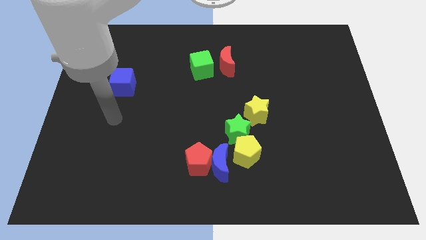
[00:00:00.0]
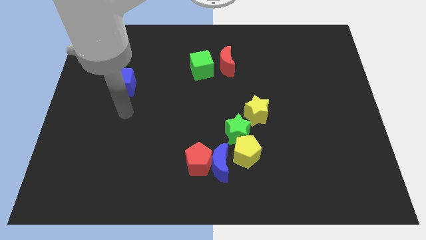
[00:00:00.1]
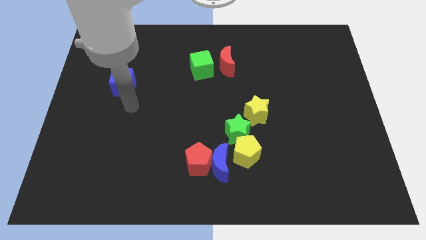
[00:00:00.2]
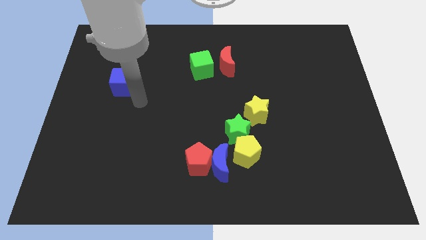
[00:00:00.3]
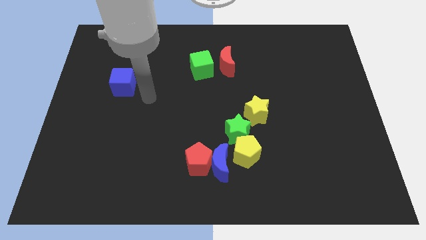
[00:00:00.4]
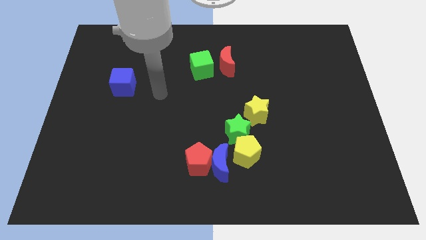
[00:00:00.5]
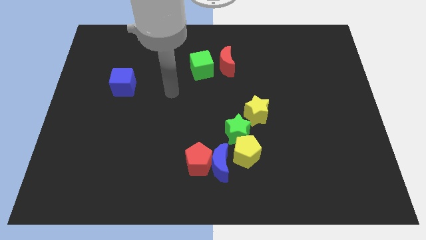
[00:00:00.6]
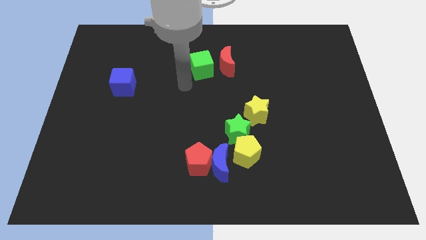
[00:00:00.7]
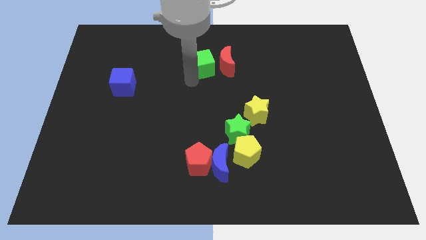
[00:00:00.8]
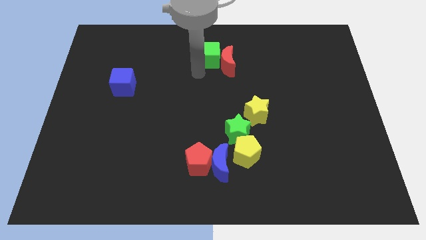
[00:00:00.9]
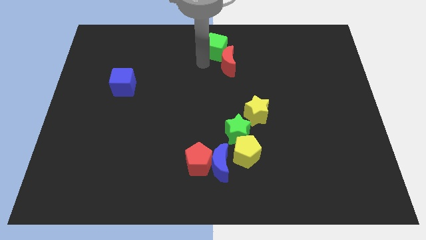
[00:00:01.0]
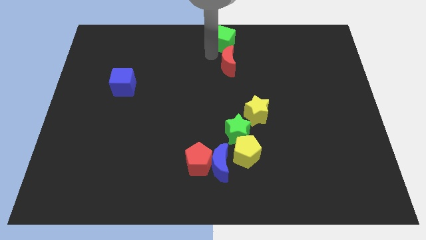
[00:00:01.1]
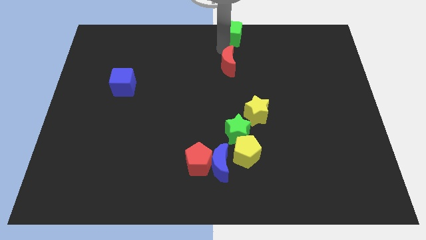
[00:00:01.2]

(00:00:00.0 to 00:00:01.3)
separate the red moon from the green cube

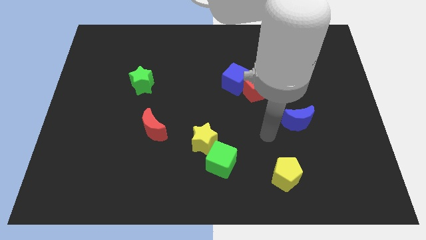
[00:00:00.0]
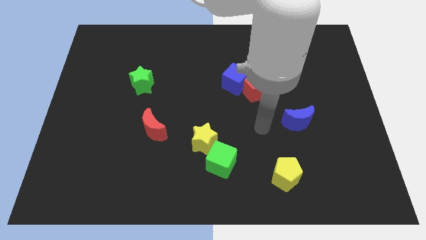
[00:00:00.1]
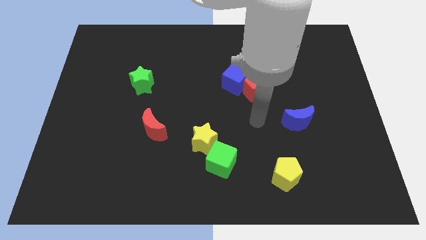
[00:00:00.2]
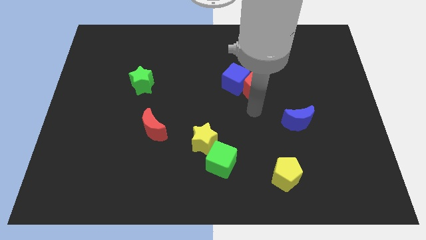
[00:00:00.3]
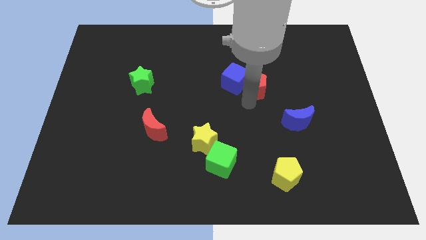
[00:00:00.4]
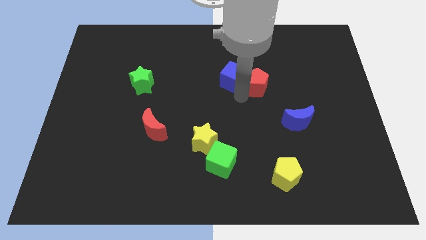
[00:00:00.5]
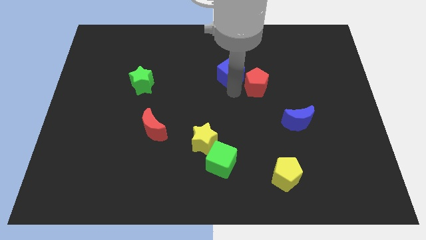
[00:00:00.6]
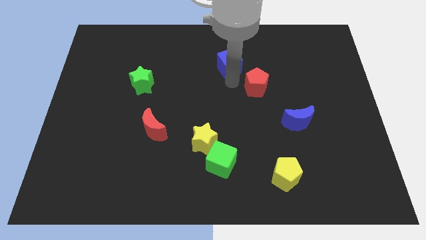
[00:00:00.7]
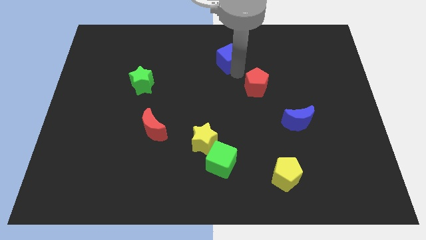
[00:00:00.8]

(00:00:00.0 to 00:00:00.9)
move the red pentagon away from the blue cube

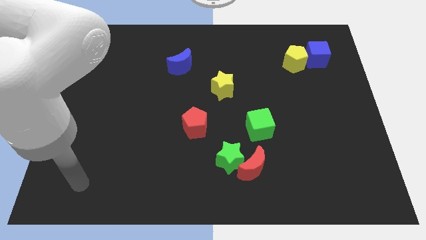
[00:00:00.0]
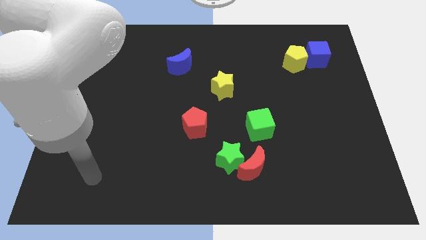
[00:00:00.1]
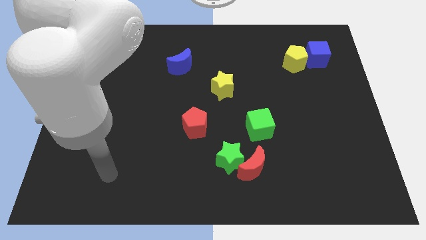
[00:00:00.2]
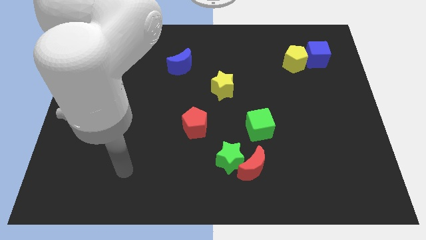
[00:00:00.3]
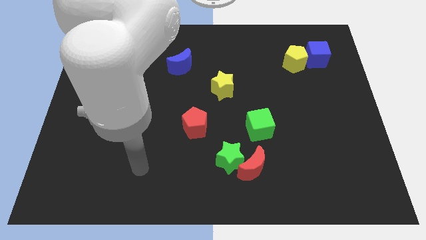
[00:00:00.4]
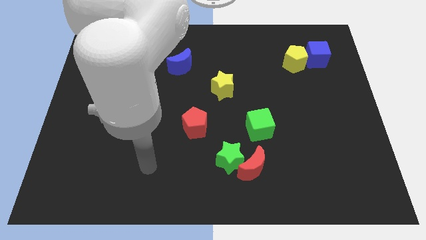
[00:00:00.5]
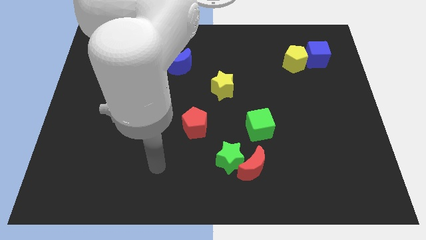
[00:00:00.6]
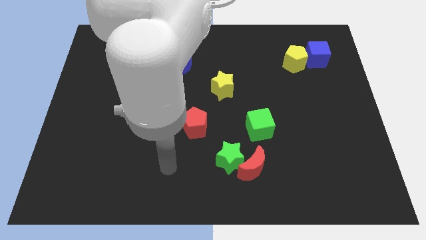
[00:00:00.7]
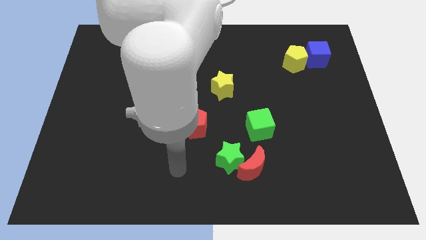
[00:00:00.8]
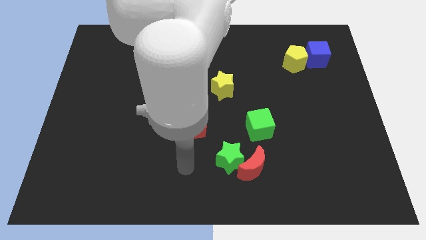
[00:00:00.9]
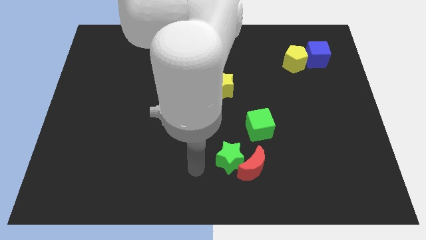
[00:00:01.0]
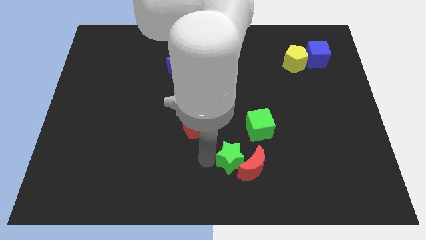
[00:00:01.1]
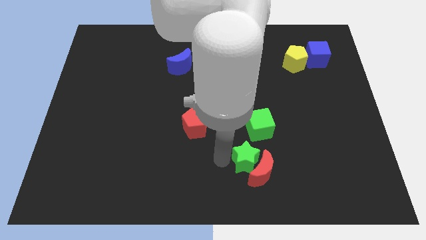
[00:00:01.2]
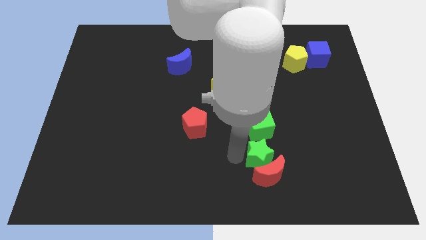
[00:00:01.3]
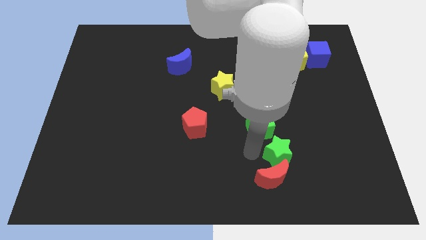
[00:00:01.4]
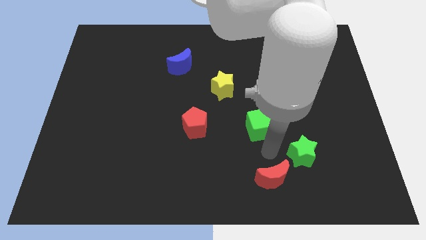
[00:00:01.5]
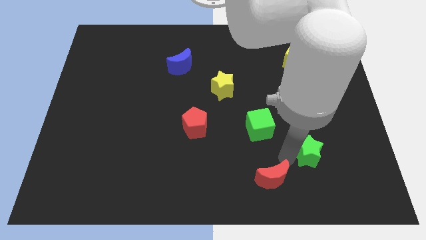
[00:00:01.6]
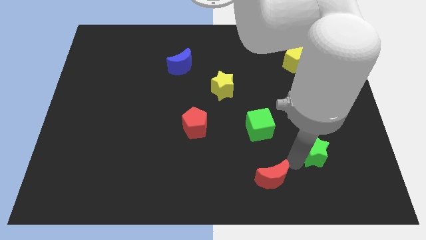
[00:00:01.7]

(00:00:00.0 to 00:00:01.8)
separate the red moon from the green star

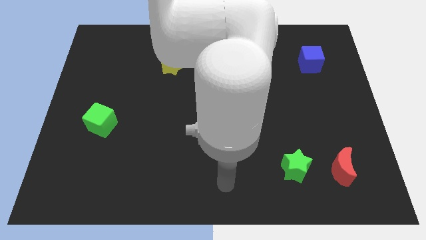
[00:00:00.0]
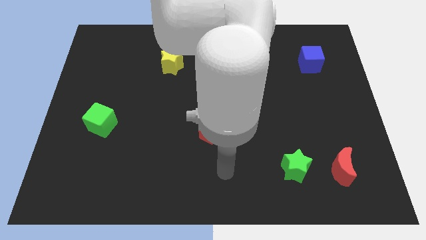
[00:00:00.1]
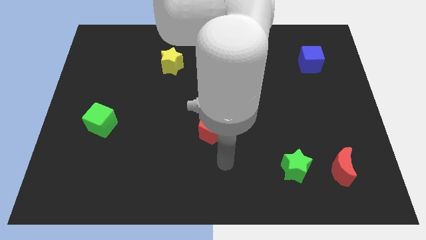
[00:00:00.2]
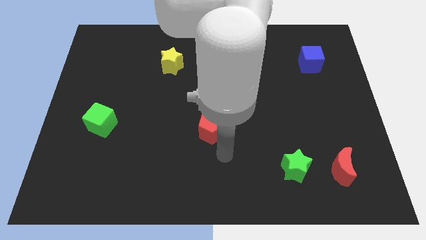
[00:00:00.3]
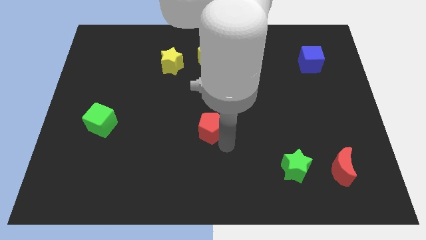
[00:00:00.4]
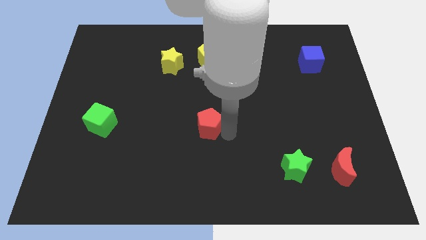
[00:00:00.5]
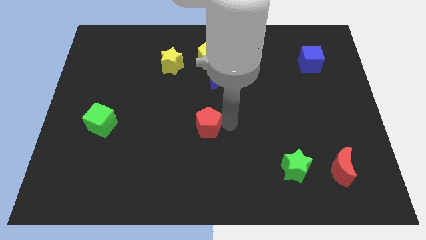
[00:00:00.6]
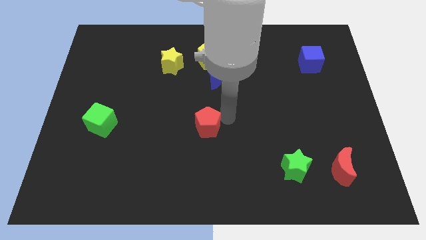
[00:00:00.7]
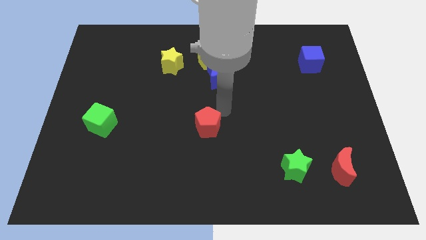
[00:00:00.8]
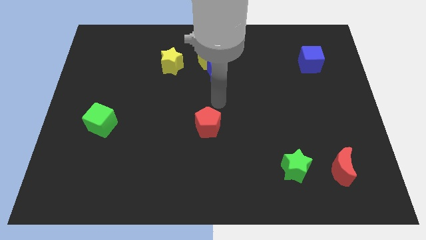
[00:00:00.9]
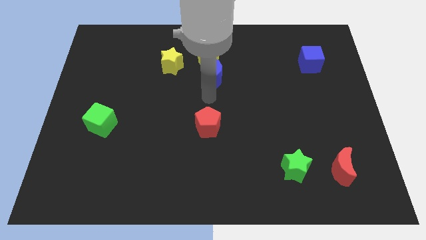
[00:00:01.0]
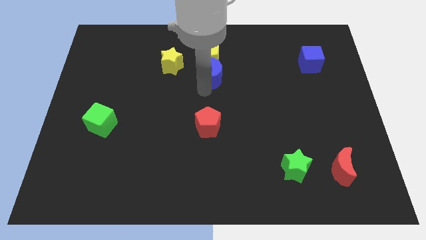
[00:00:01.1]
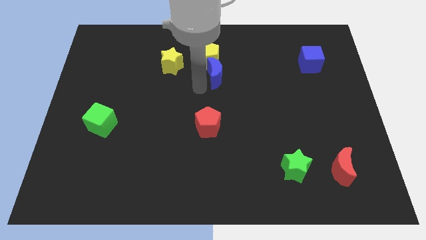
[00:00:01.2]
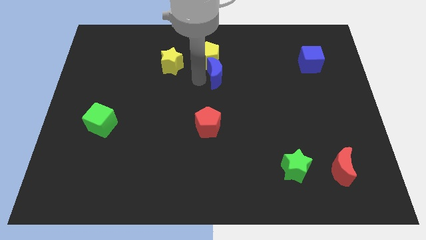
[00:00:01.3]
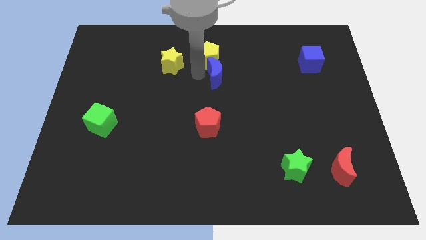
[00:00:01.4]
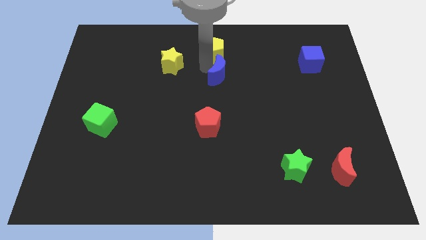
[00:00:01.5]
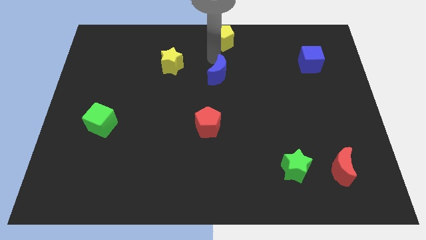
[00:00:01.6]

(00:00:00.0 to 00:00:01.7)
move the blue moon away from the yellow pentagon

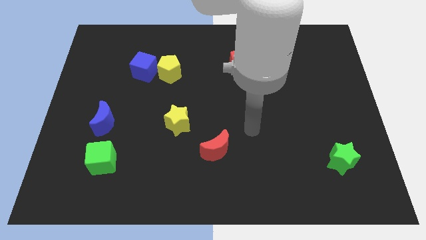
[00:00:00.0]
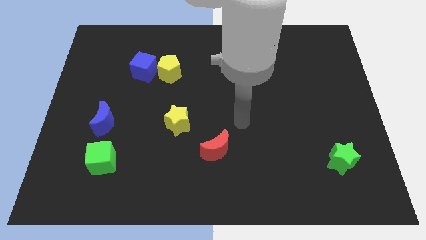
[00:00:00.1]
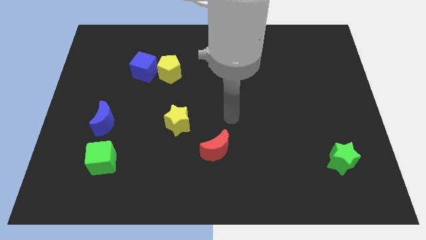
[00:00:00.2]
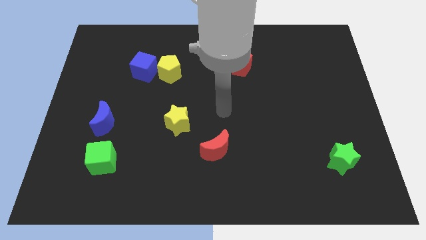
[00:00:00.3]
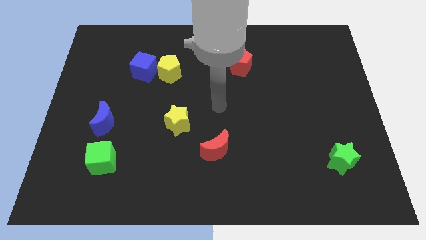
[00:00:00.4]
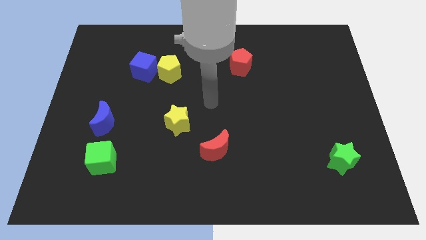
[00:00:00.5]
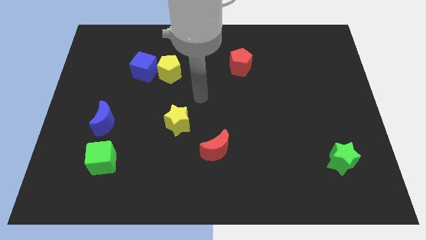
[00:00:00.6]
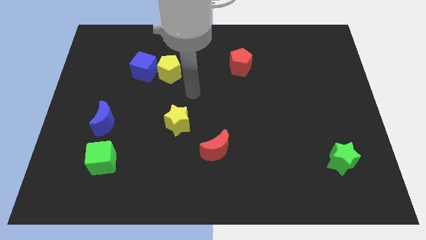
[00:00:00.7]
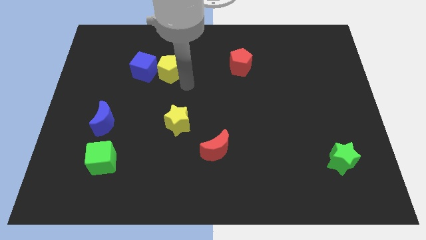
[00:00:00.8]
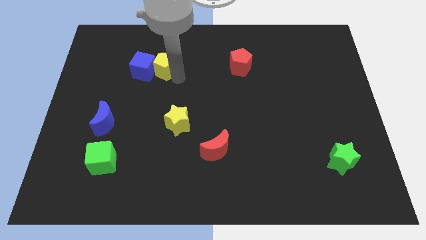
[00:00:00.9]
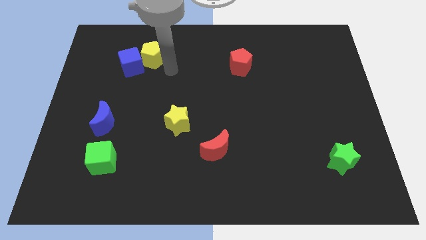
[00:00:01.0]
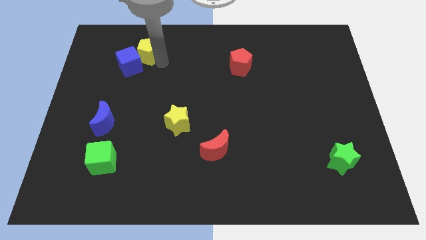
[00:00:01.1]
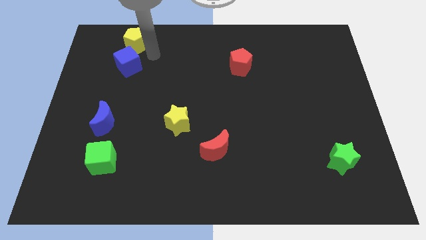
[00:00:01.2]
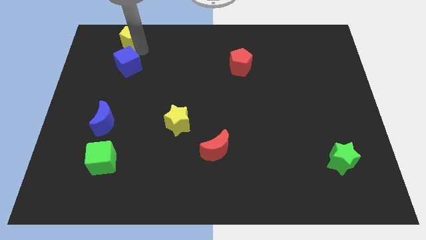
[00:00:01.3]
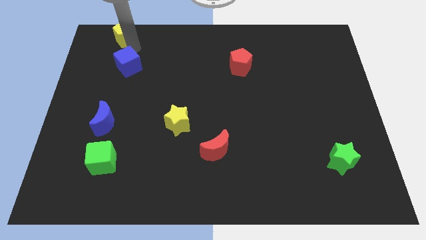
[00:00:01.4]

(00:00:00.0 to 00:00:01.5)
separate the blue cube from the yellow pentagon

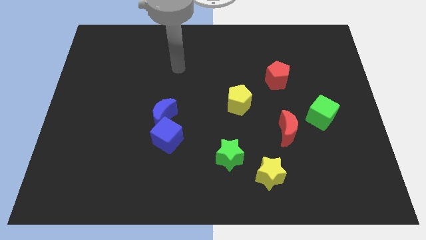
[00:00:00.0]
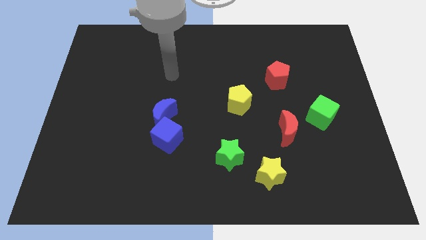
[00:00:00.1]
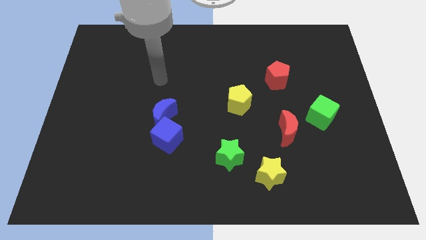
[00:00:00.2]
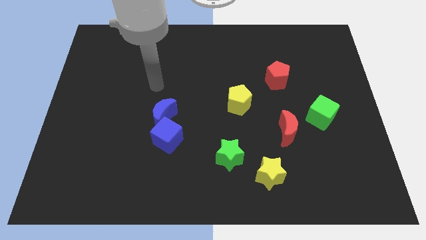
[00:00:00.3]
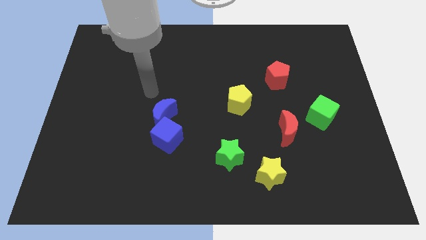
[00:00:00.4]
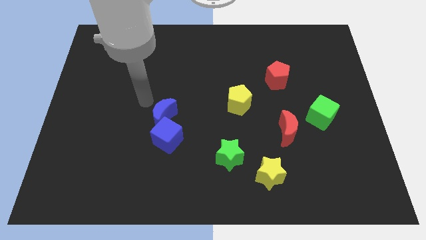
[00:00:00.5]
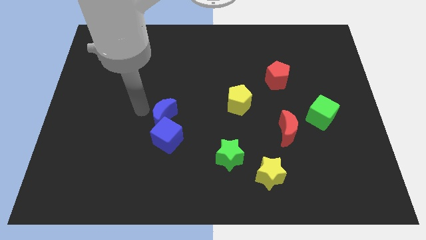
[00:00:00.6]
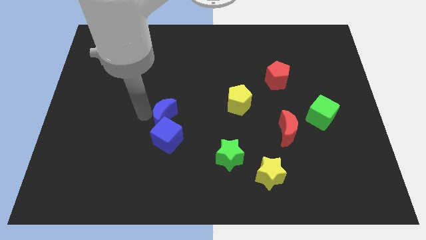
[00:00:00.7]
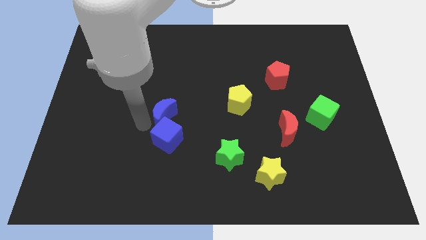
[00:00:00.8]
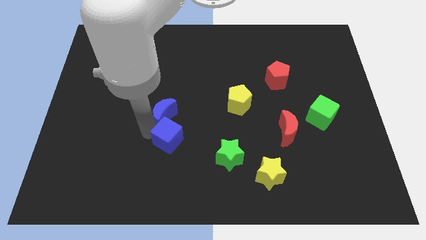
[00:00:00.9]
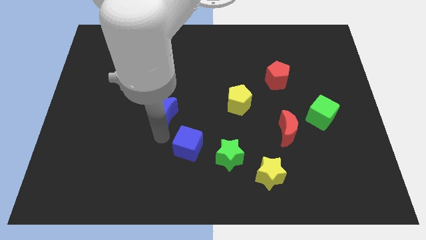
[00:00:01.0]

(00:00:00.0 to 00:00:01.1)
move the blue moon away from the blue cube

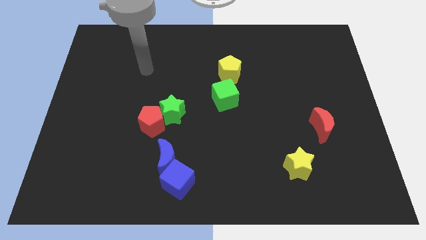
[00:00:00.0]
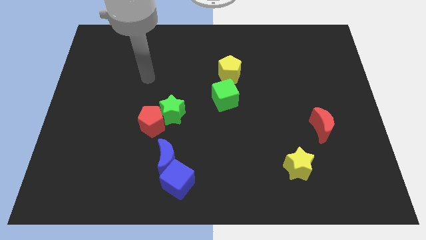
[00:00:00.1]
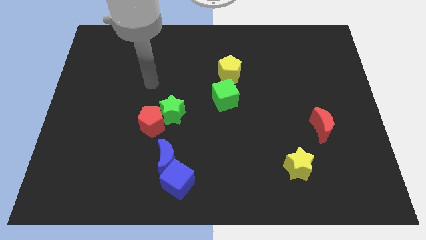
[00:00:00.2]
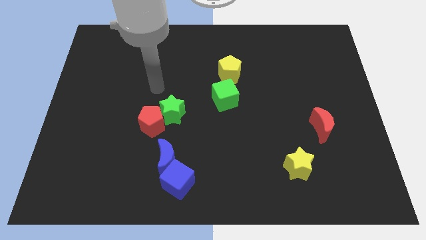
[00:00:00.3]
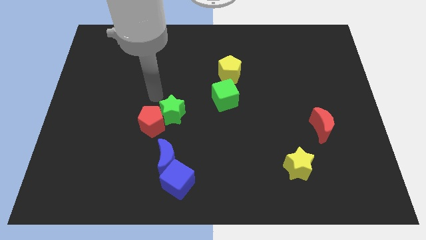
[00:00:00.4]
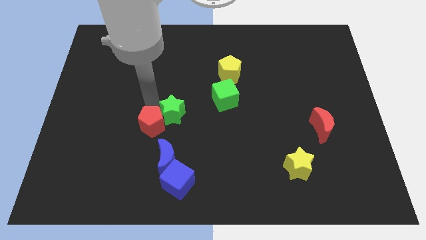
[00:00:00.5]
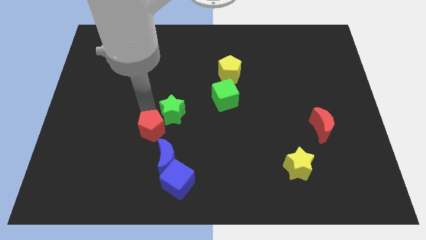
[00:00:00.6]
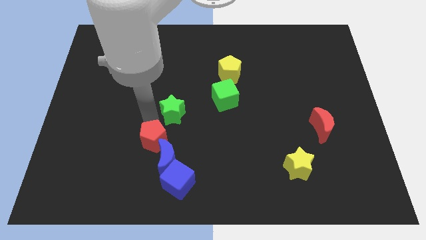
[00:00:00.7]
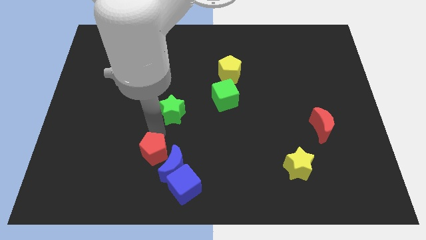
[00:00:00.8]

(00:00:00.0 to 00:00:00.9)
move the green star away from the red pentagon
